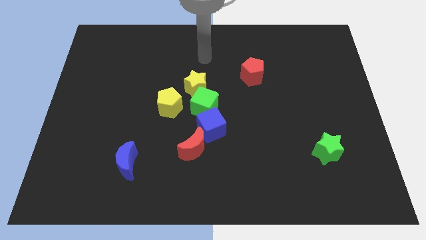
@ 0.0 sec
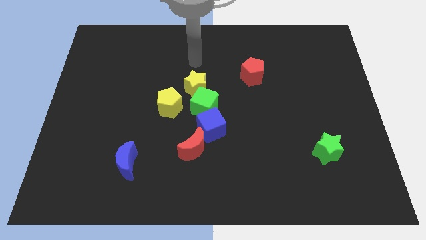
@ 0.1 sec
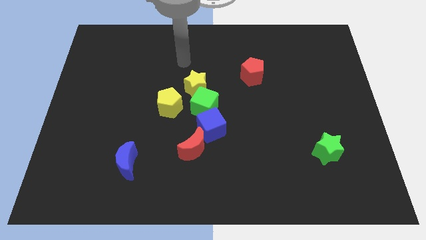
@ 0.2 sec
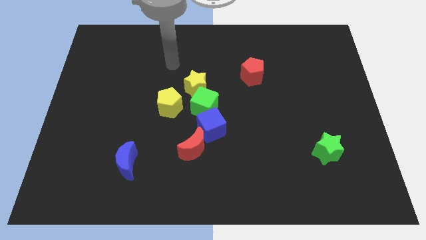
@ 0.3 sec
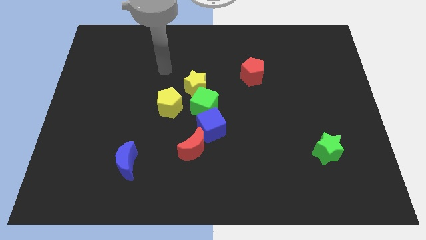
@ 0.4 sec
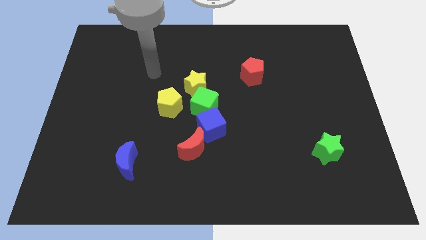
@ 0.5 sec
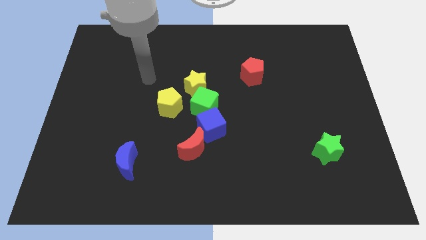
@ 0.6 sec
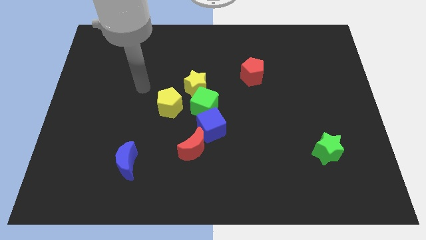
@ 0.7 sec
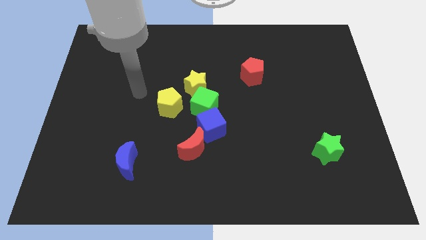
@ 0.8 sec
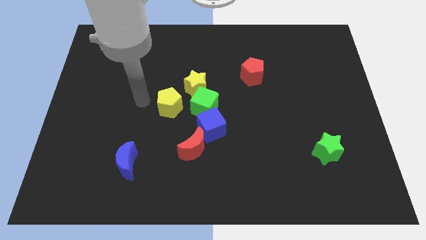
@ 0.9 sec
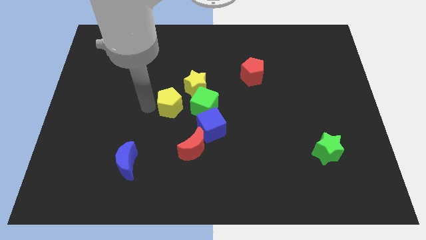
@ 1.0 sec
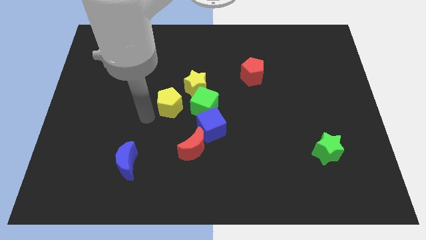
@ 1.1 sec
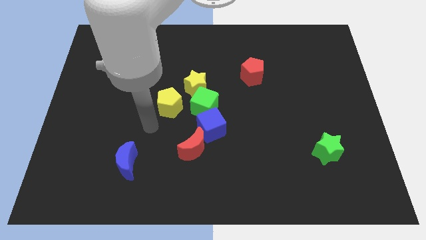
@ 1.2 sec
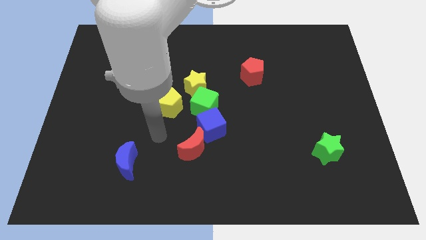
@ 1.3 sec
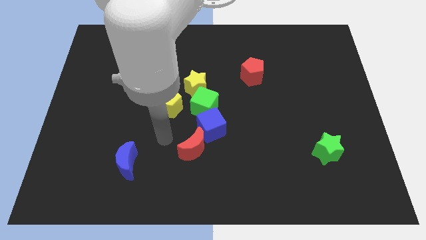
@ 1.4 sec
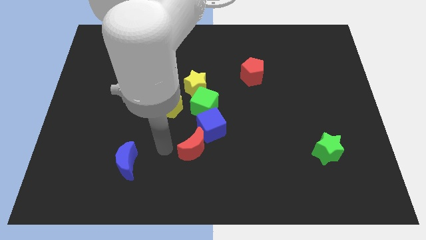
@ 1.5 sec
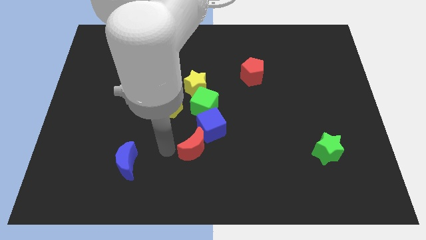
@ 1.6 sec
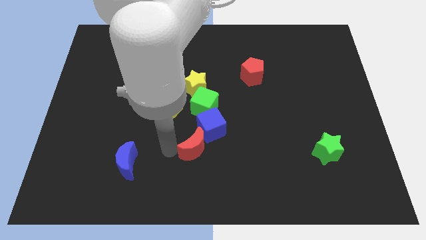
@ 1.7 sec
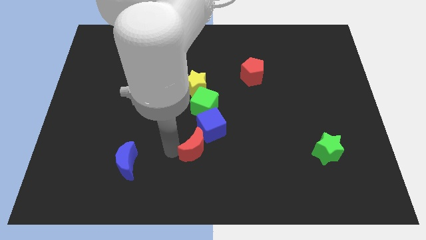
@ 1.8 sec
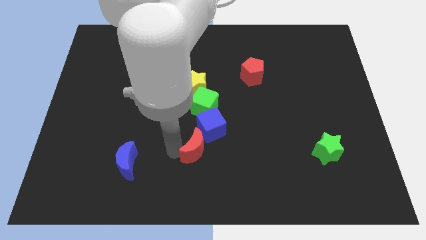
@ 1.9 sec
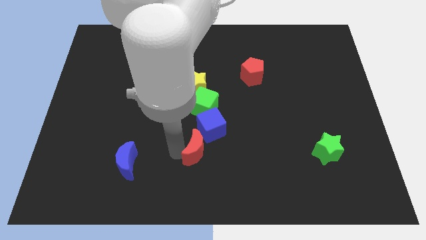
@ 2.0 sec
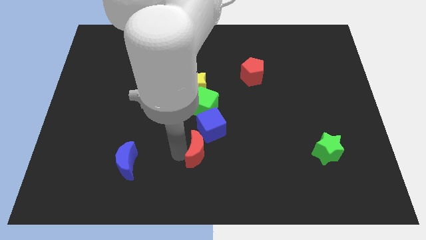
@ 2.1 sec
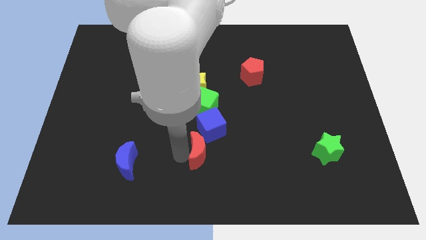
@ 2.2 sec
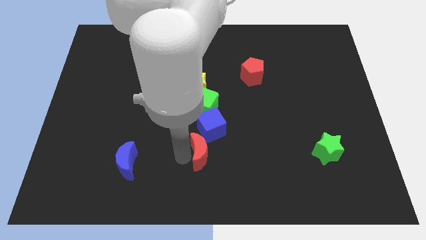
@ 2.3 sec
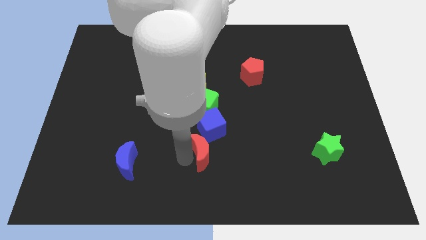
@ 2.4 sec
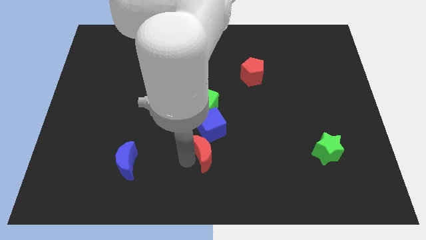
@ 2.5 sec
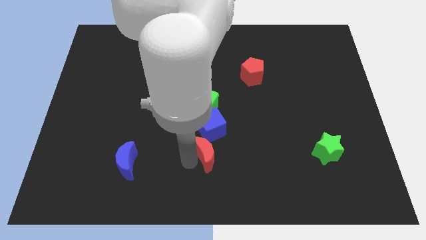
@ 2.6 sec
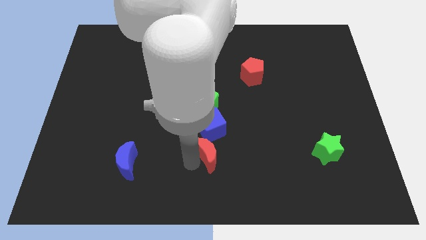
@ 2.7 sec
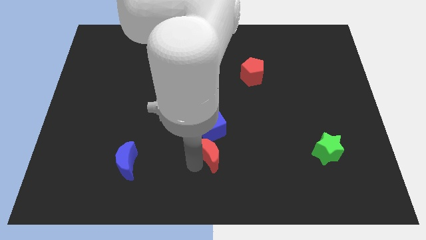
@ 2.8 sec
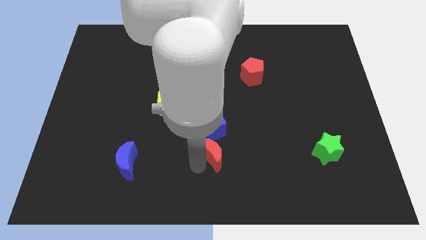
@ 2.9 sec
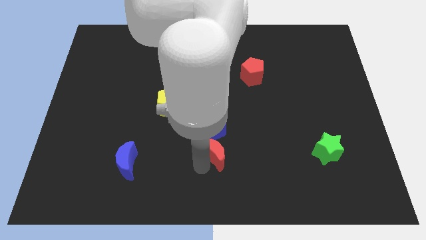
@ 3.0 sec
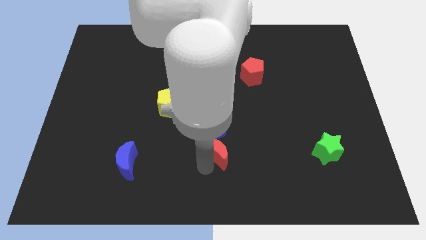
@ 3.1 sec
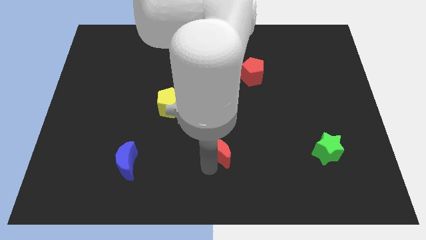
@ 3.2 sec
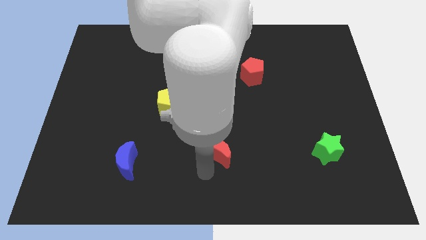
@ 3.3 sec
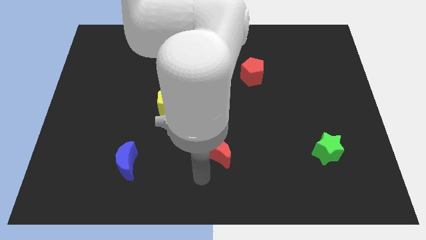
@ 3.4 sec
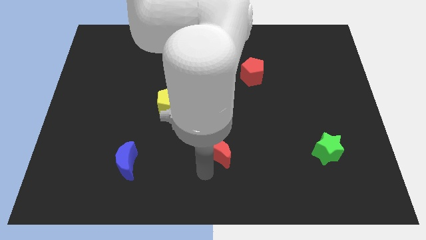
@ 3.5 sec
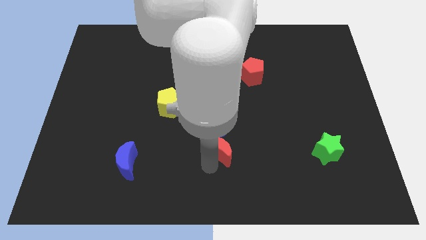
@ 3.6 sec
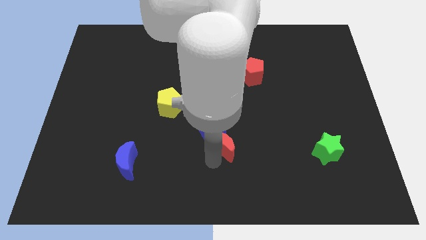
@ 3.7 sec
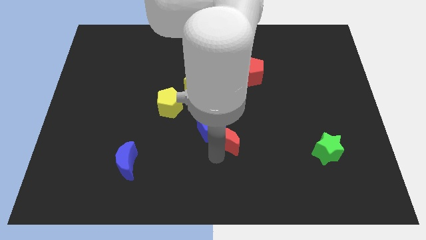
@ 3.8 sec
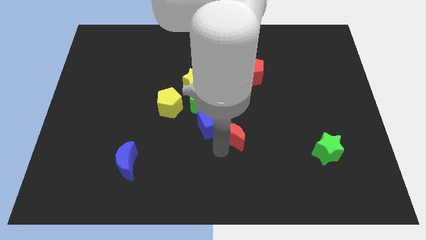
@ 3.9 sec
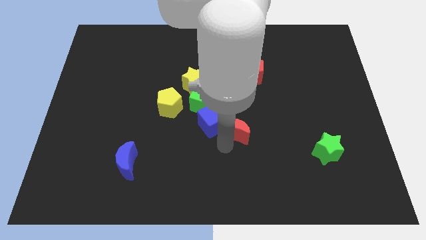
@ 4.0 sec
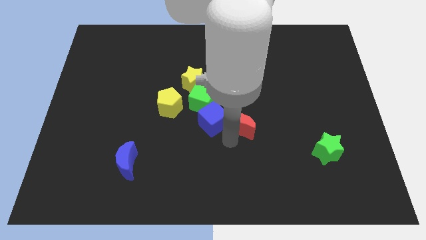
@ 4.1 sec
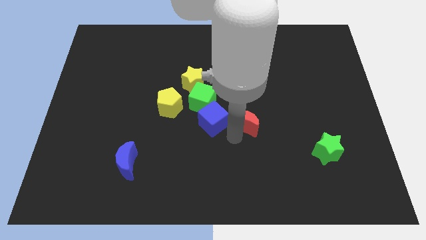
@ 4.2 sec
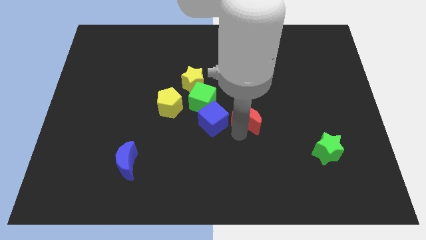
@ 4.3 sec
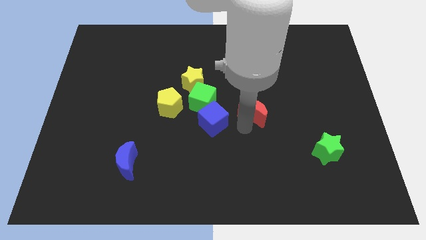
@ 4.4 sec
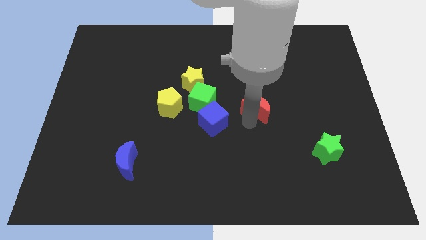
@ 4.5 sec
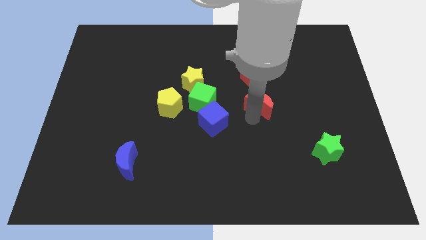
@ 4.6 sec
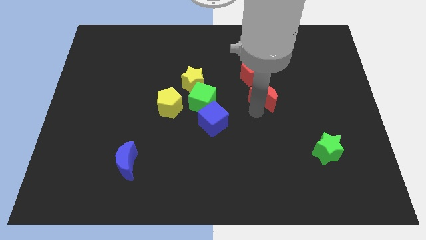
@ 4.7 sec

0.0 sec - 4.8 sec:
slide the red moon upwards and to the right diagonally

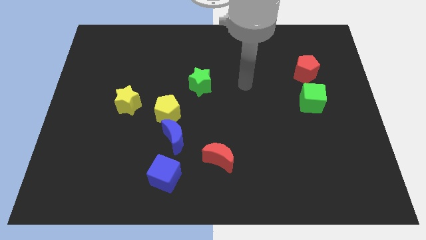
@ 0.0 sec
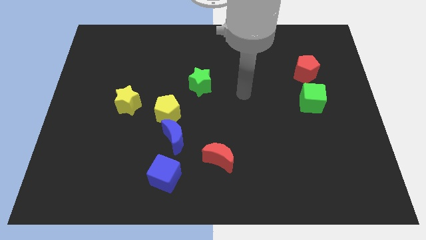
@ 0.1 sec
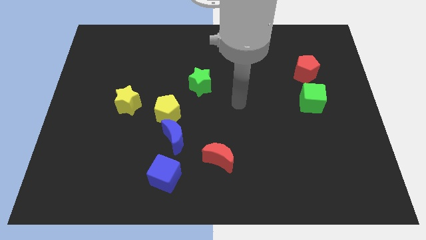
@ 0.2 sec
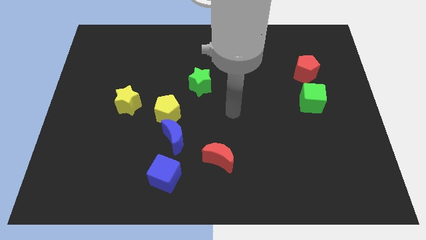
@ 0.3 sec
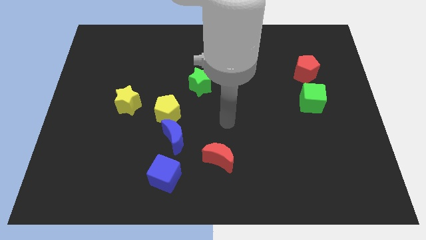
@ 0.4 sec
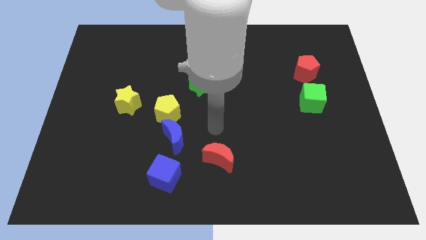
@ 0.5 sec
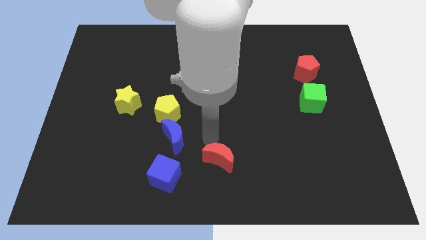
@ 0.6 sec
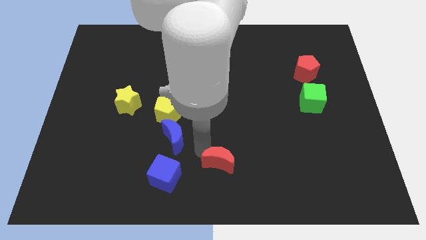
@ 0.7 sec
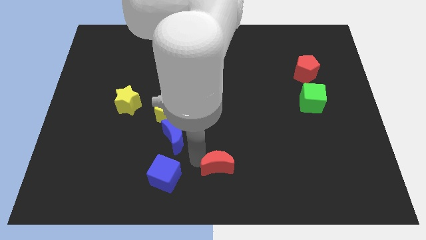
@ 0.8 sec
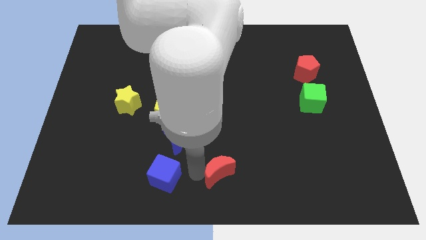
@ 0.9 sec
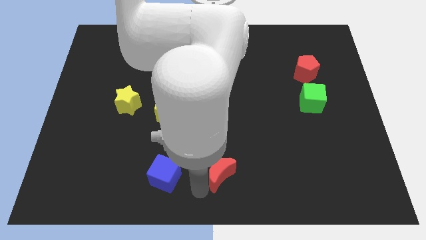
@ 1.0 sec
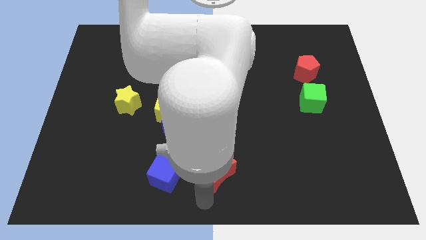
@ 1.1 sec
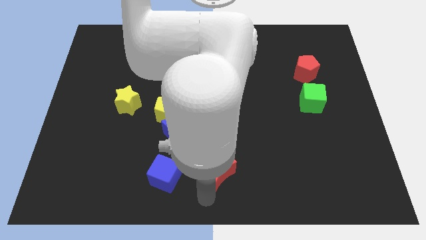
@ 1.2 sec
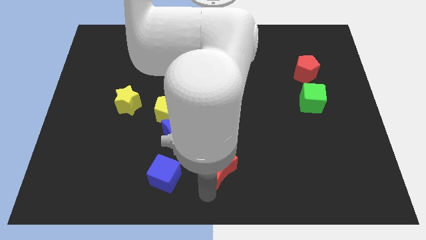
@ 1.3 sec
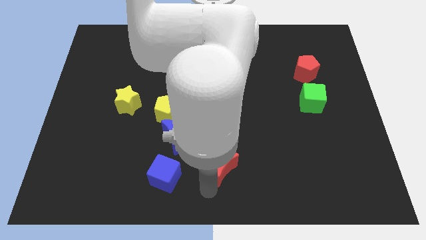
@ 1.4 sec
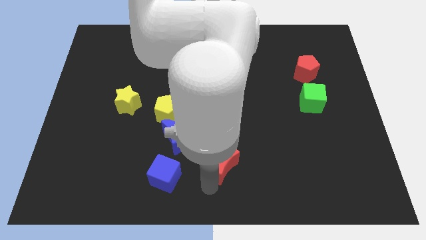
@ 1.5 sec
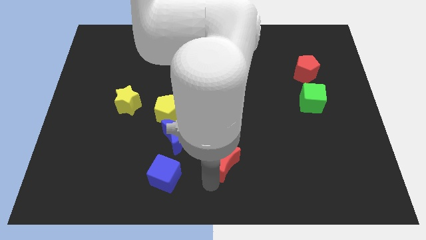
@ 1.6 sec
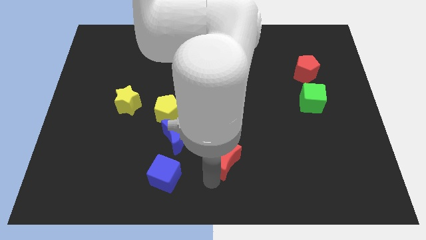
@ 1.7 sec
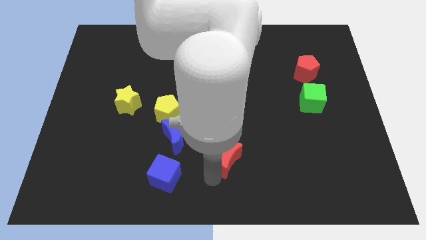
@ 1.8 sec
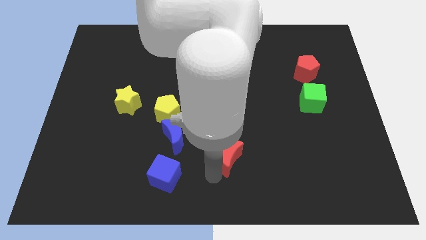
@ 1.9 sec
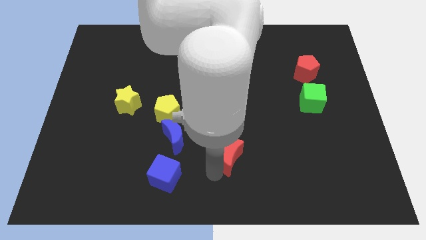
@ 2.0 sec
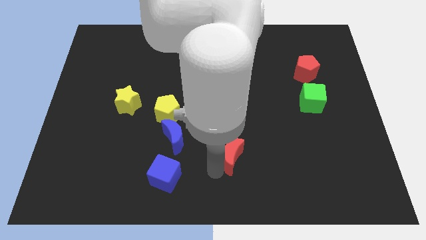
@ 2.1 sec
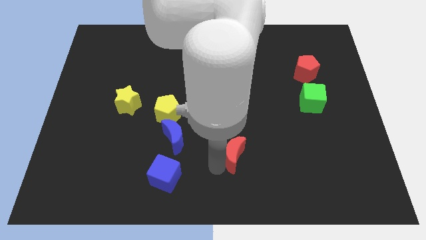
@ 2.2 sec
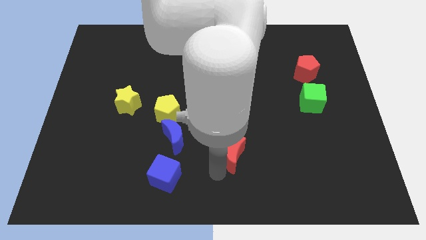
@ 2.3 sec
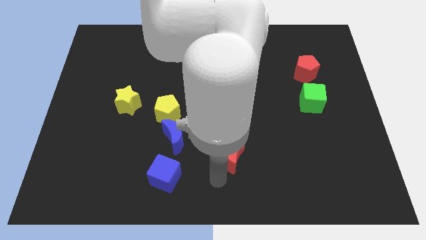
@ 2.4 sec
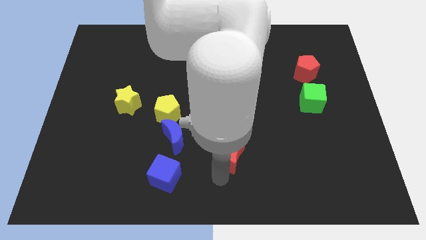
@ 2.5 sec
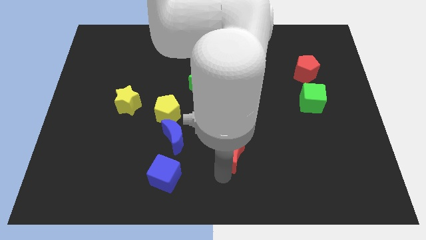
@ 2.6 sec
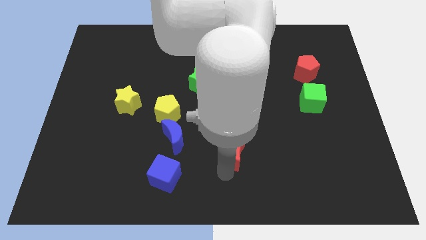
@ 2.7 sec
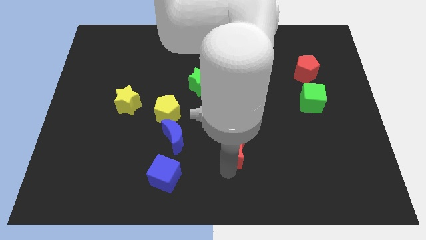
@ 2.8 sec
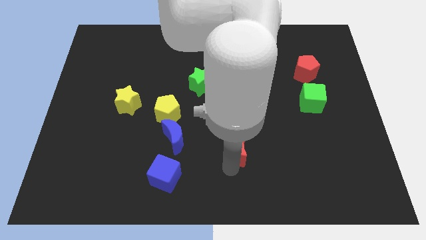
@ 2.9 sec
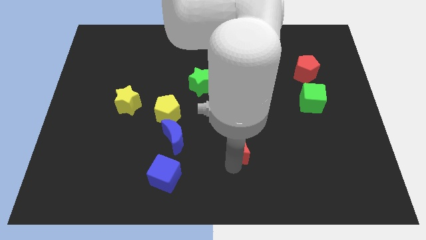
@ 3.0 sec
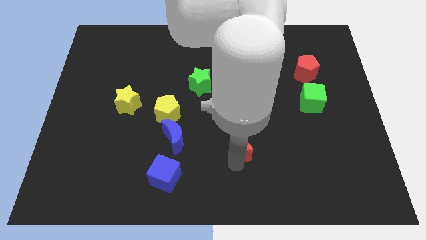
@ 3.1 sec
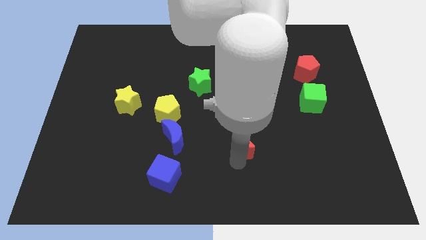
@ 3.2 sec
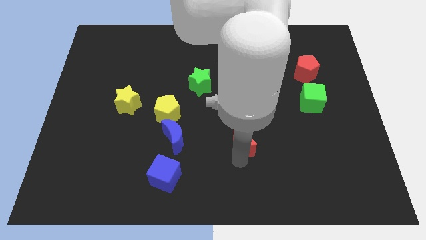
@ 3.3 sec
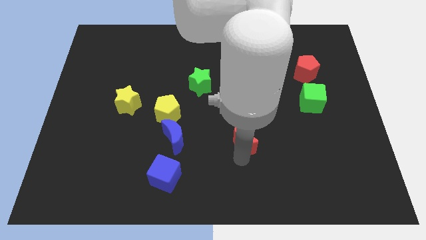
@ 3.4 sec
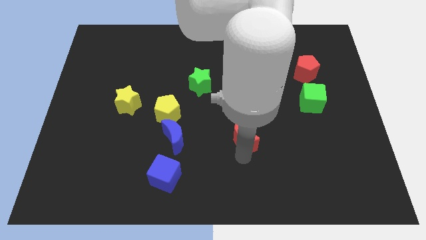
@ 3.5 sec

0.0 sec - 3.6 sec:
push the red moon up and right diagonally a little
